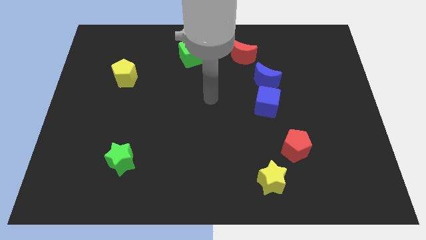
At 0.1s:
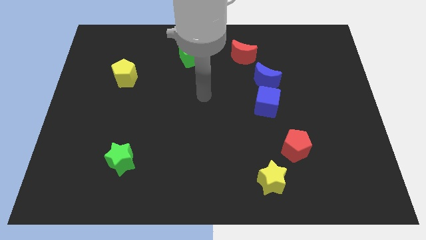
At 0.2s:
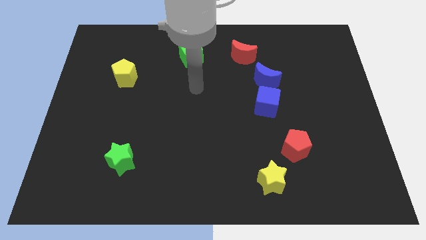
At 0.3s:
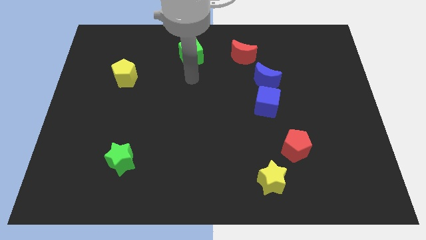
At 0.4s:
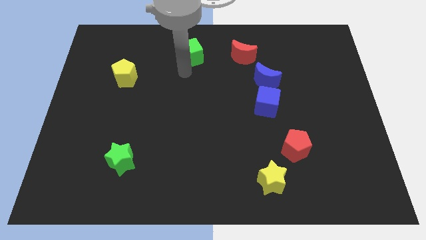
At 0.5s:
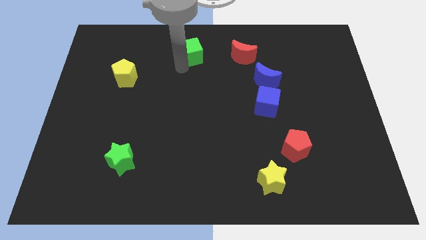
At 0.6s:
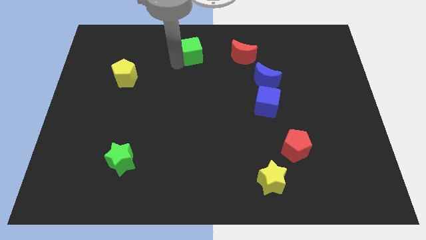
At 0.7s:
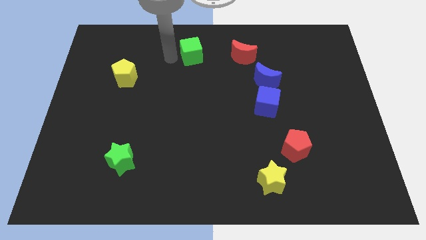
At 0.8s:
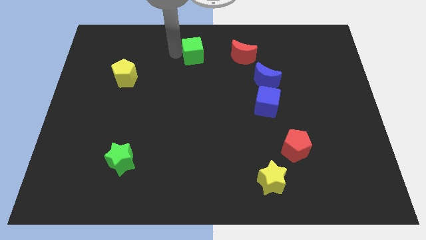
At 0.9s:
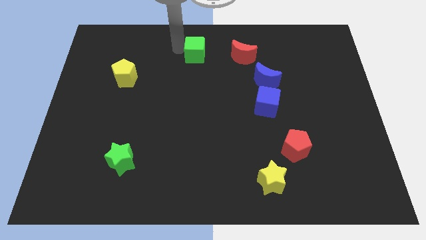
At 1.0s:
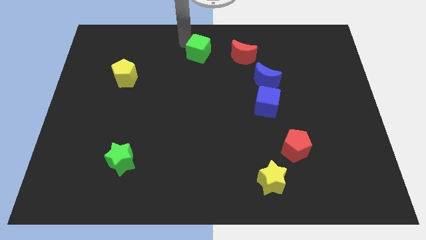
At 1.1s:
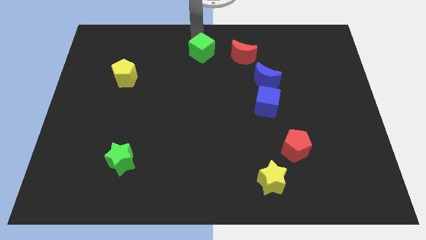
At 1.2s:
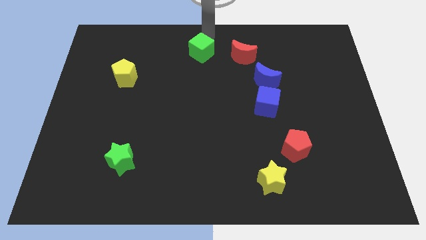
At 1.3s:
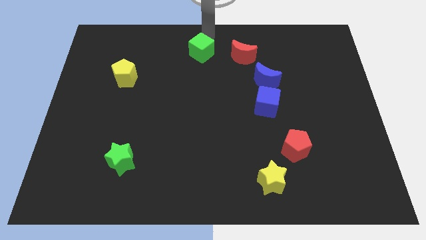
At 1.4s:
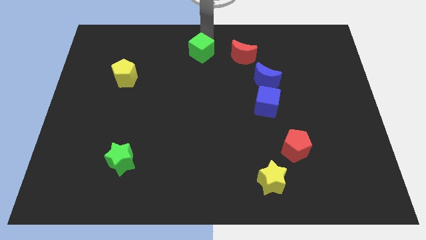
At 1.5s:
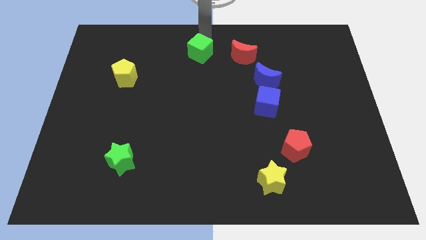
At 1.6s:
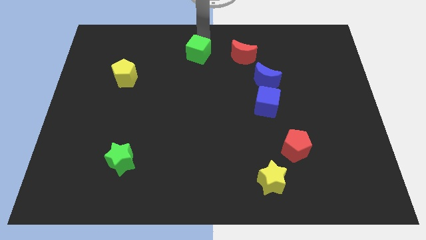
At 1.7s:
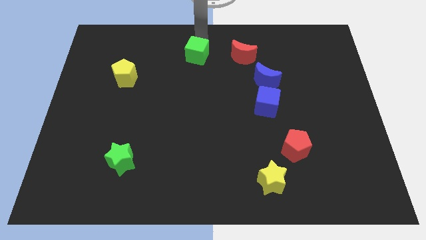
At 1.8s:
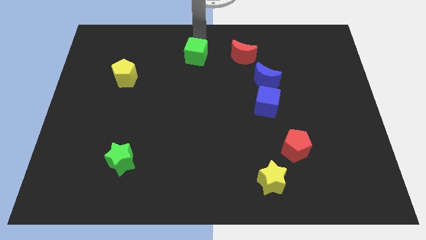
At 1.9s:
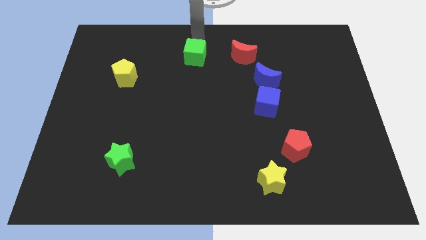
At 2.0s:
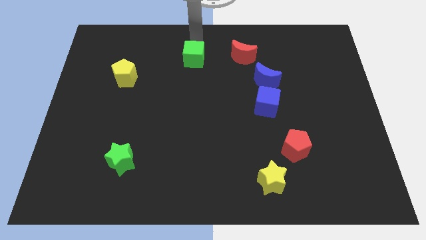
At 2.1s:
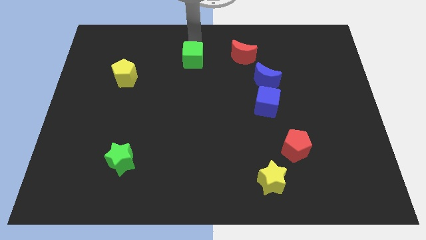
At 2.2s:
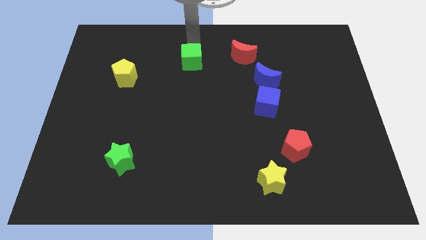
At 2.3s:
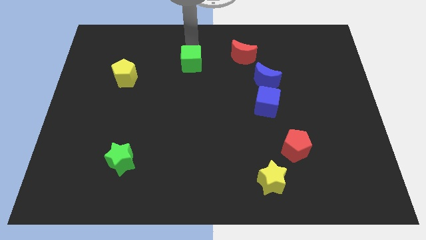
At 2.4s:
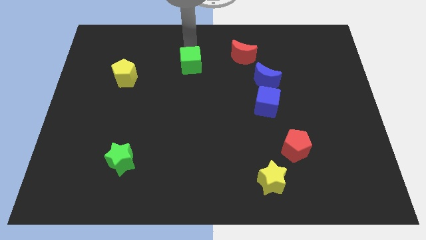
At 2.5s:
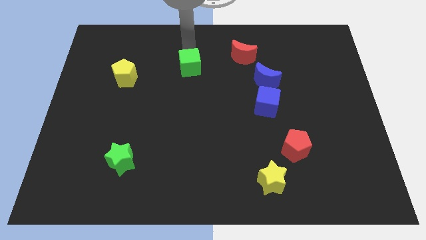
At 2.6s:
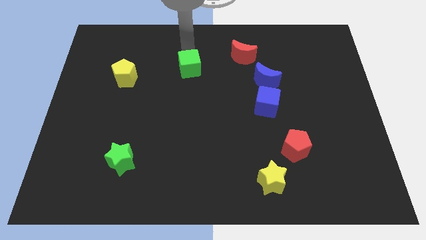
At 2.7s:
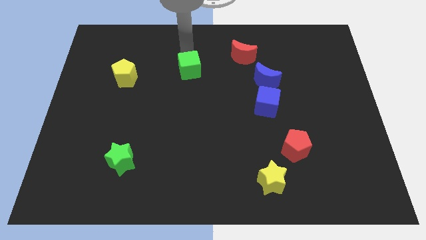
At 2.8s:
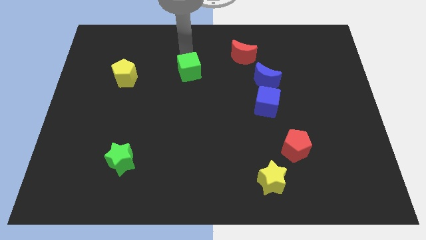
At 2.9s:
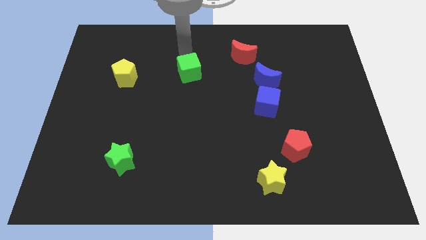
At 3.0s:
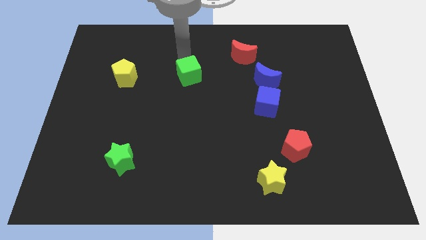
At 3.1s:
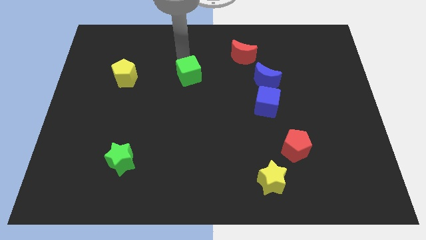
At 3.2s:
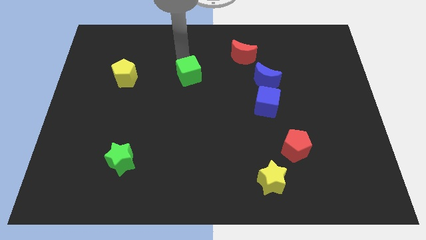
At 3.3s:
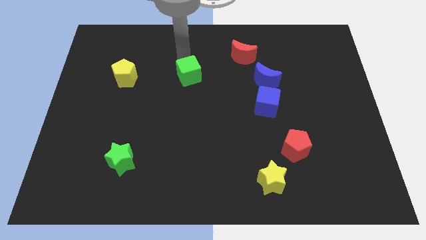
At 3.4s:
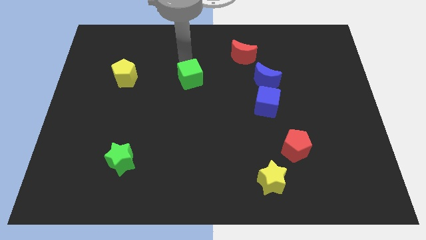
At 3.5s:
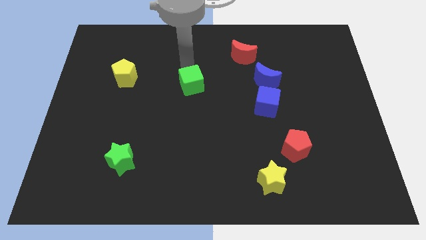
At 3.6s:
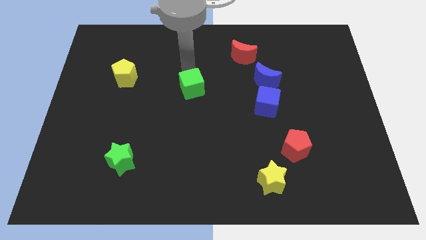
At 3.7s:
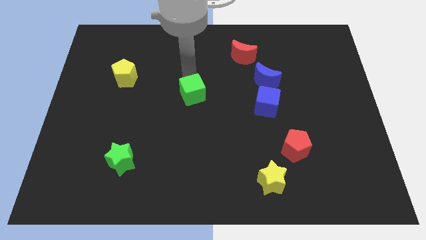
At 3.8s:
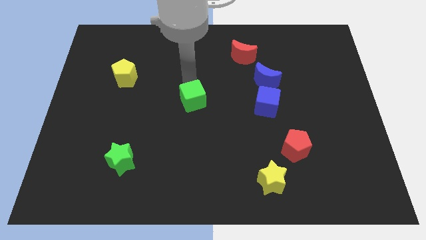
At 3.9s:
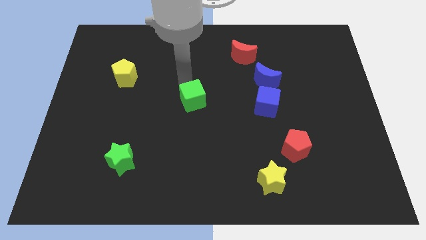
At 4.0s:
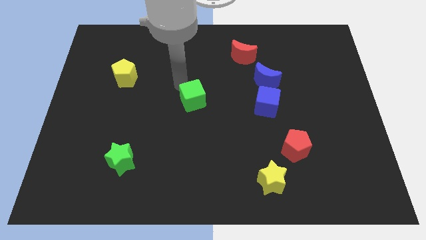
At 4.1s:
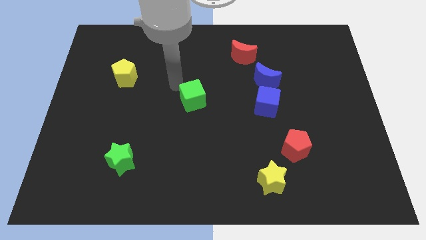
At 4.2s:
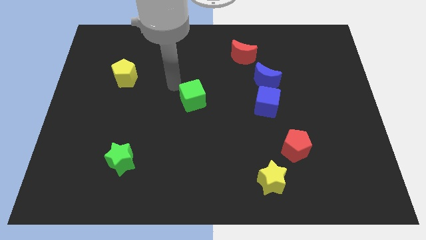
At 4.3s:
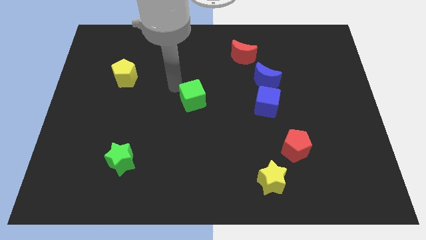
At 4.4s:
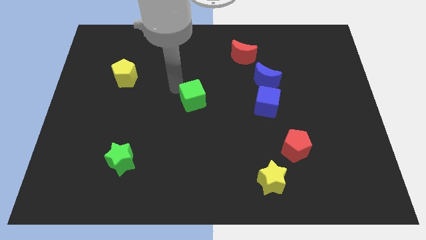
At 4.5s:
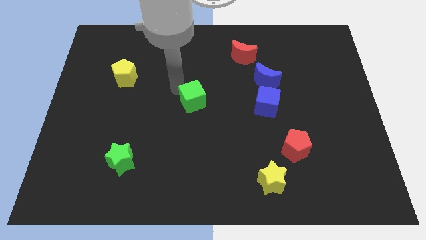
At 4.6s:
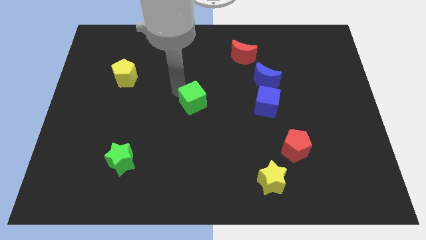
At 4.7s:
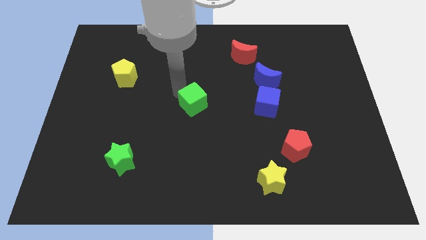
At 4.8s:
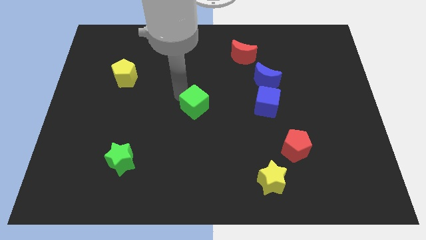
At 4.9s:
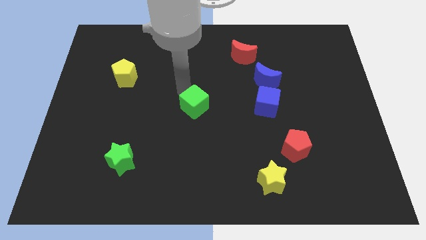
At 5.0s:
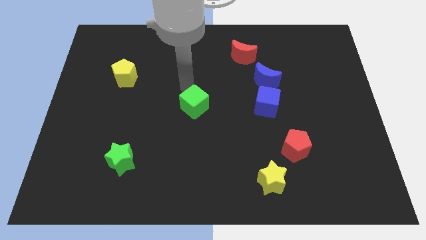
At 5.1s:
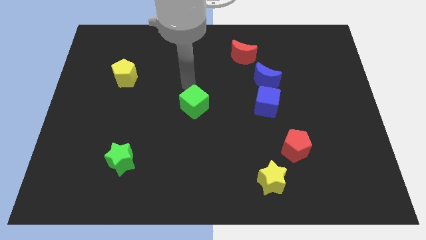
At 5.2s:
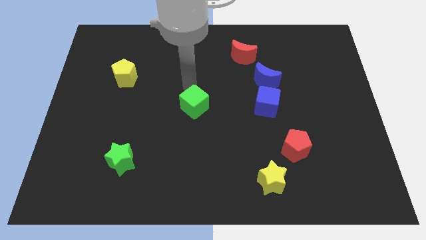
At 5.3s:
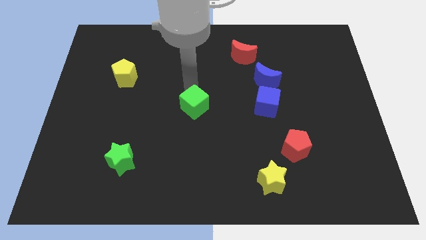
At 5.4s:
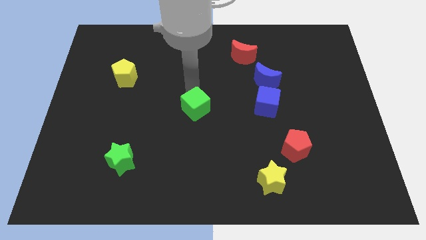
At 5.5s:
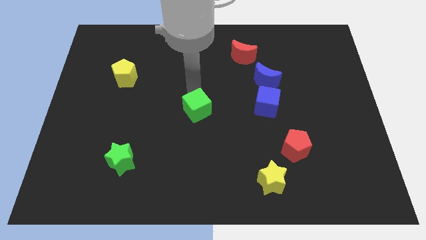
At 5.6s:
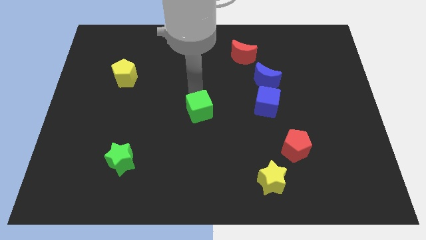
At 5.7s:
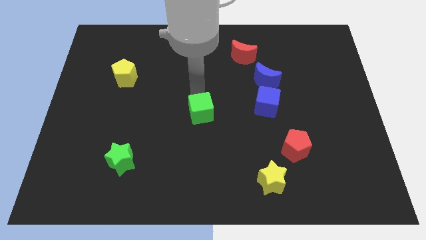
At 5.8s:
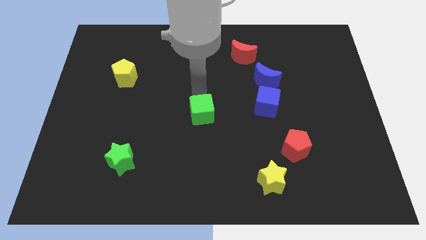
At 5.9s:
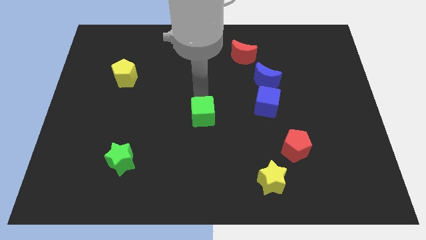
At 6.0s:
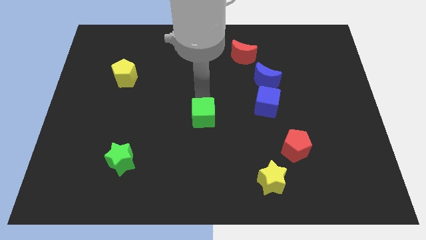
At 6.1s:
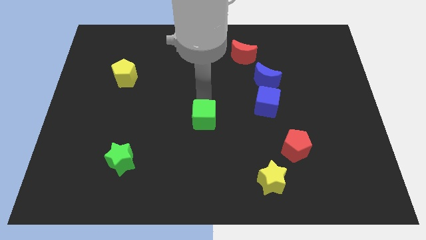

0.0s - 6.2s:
push the green cube down

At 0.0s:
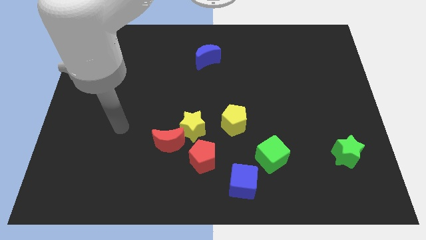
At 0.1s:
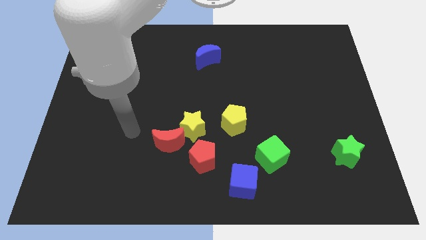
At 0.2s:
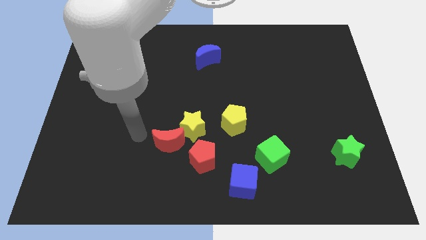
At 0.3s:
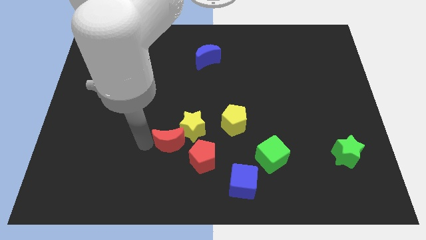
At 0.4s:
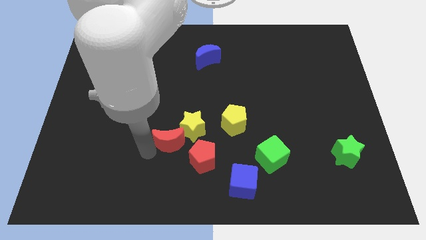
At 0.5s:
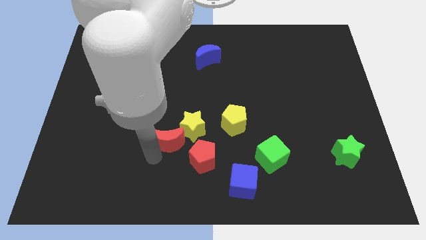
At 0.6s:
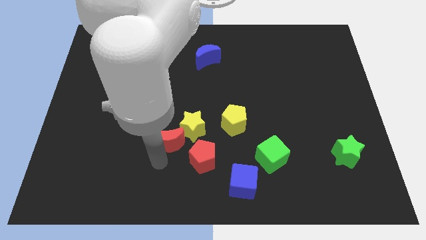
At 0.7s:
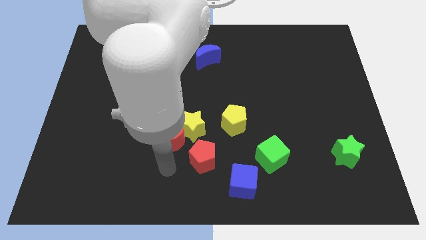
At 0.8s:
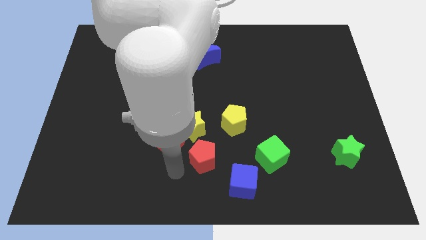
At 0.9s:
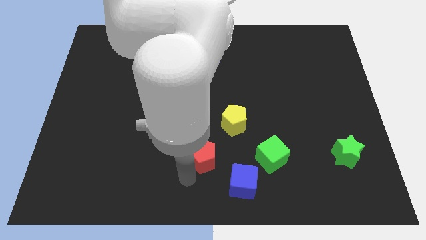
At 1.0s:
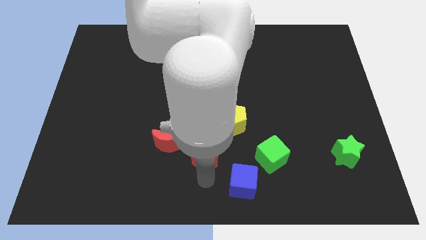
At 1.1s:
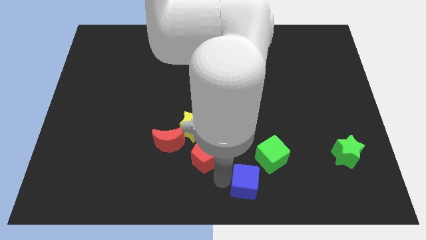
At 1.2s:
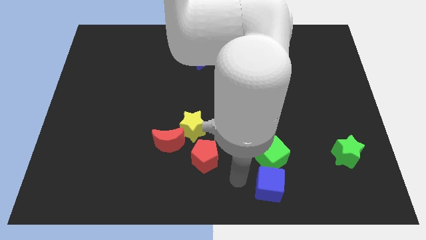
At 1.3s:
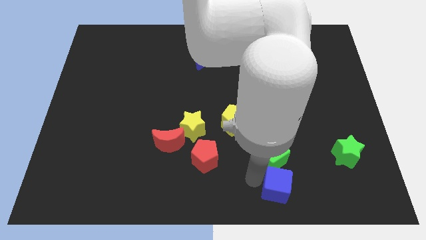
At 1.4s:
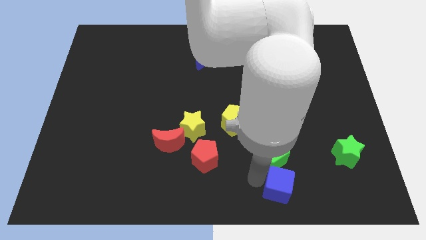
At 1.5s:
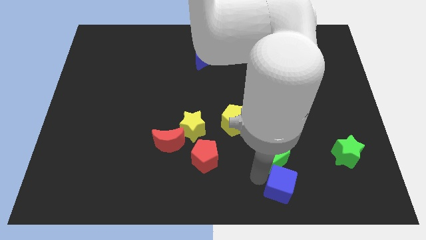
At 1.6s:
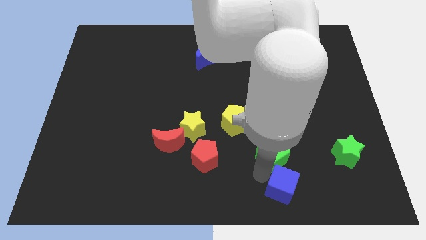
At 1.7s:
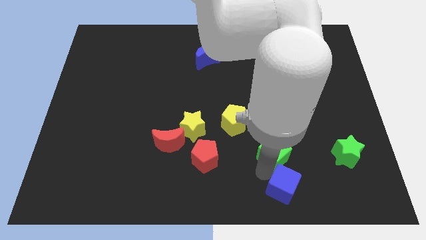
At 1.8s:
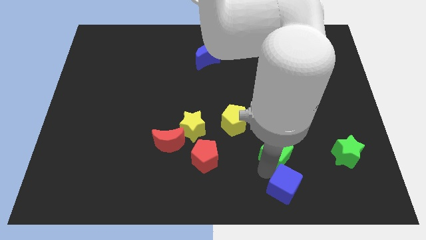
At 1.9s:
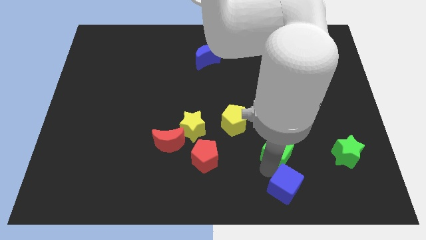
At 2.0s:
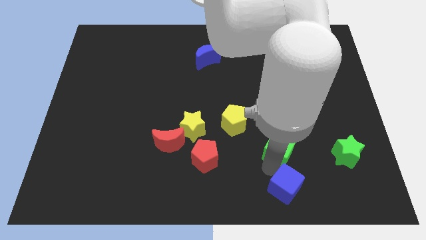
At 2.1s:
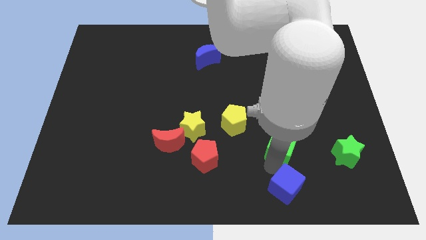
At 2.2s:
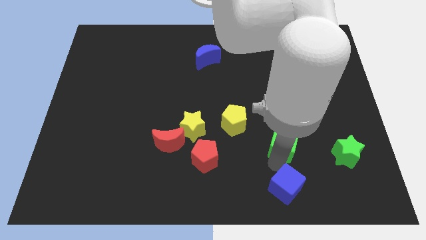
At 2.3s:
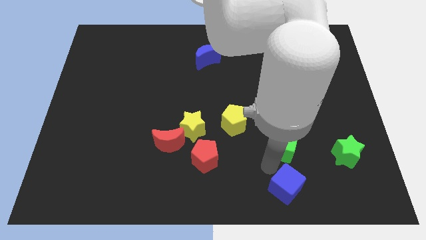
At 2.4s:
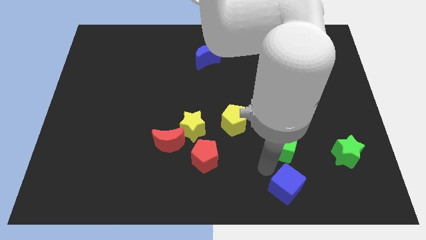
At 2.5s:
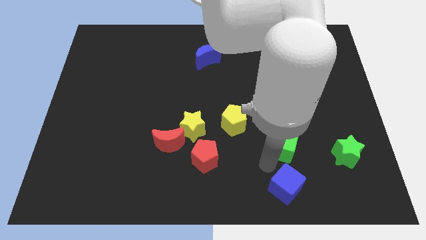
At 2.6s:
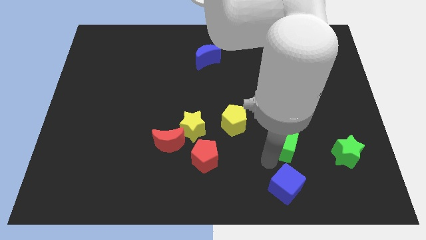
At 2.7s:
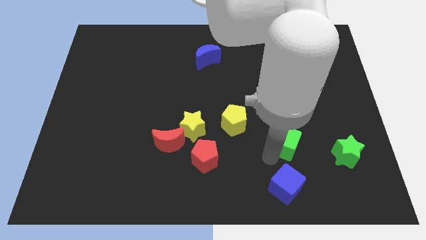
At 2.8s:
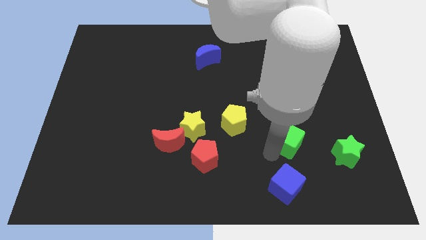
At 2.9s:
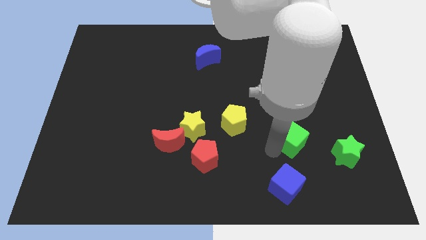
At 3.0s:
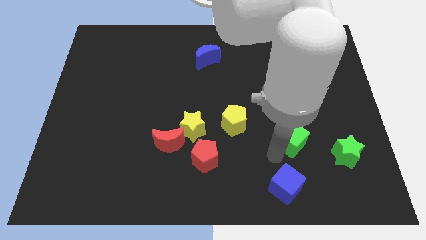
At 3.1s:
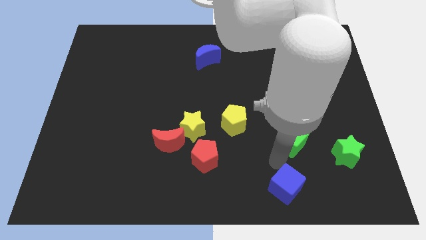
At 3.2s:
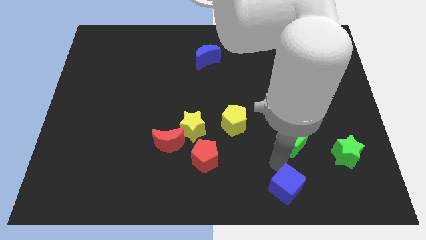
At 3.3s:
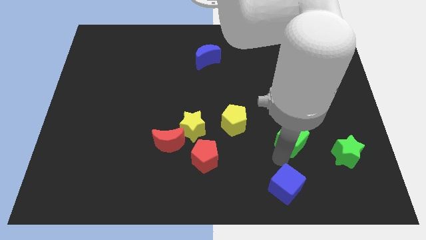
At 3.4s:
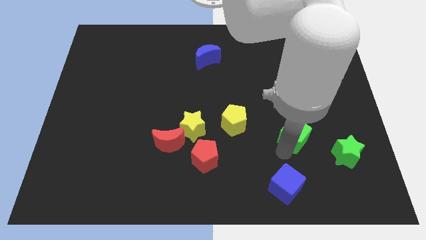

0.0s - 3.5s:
slide the green cube a little diagonally up and right
